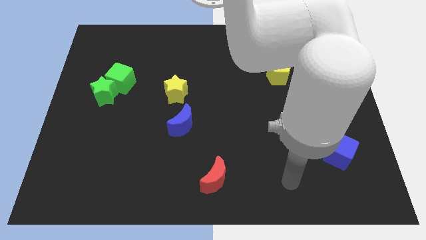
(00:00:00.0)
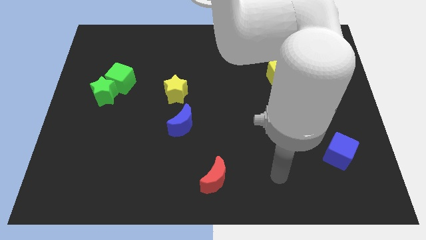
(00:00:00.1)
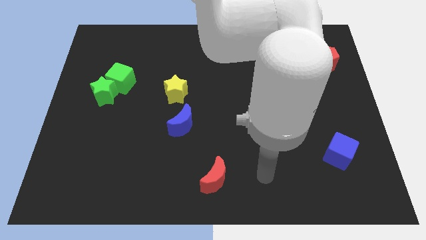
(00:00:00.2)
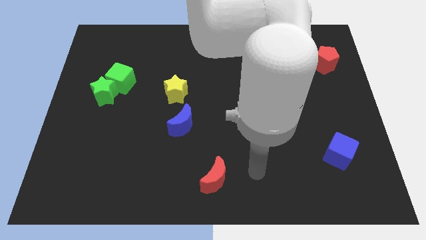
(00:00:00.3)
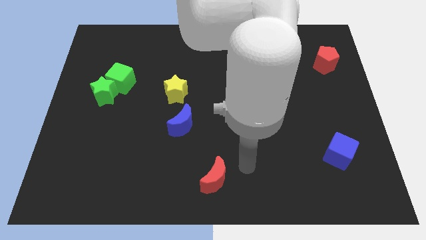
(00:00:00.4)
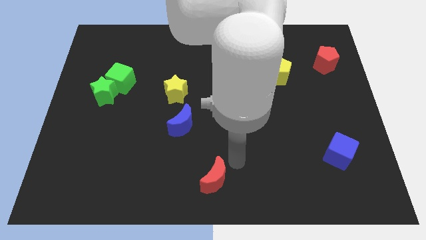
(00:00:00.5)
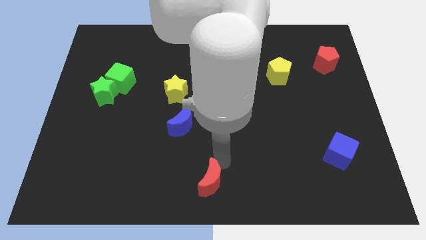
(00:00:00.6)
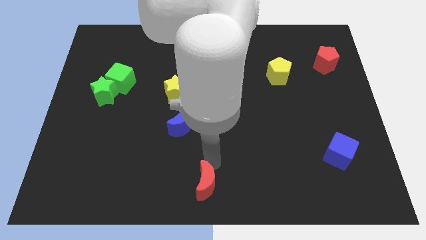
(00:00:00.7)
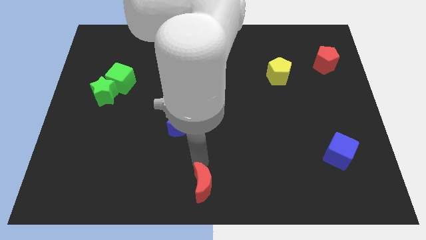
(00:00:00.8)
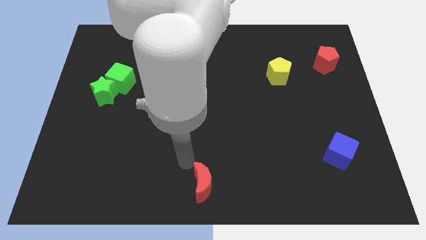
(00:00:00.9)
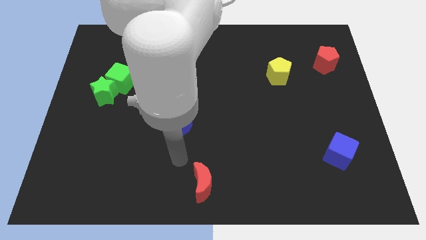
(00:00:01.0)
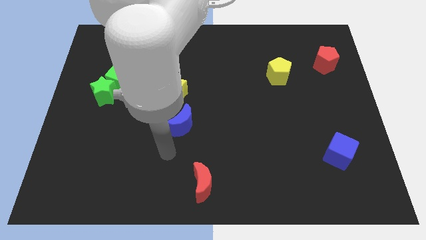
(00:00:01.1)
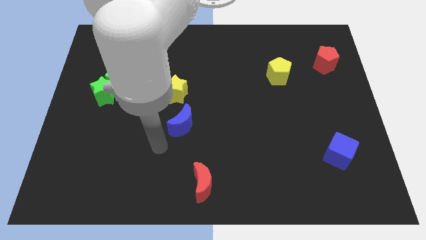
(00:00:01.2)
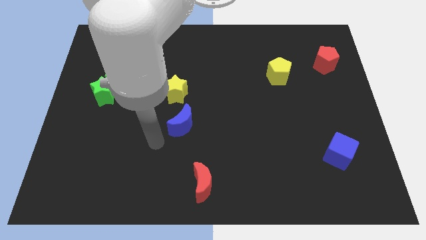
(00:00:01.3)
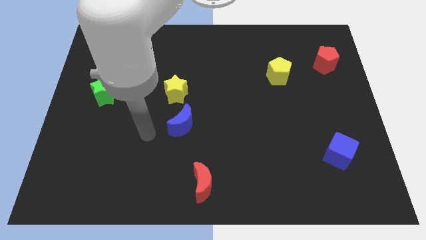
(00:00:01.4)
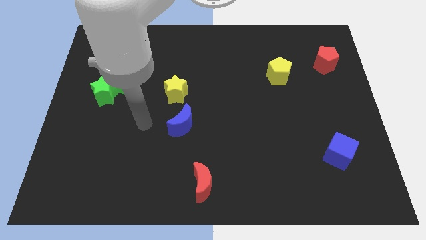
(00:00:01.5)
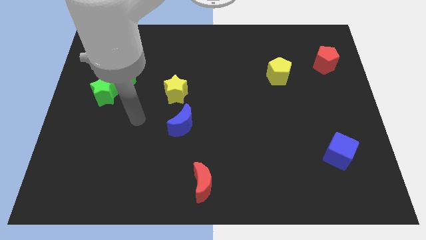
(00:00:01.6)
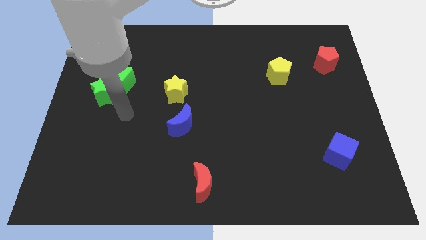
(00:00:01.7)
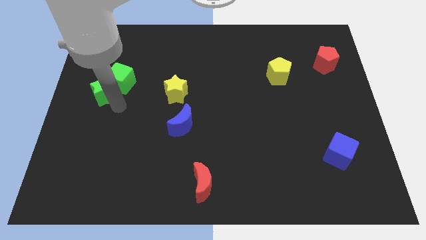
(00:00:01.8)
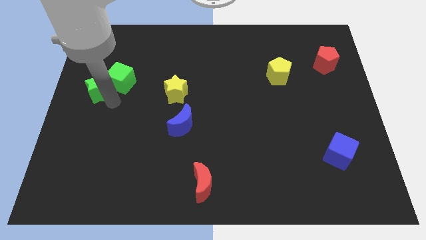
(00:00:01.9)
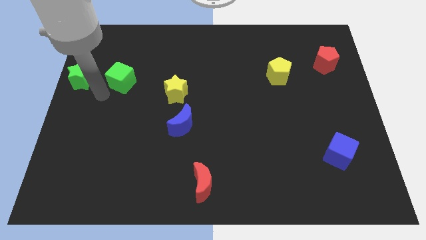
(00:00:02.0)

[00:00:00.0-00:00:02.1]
pull the green cube apart from the green star

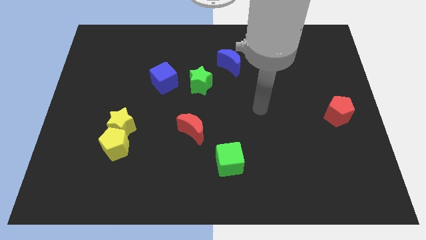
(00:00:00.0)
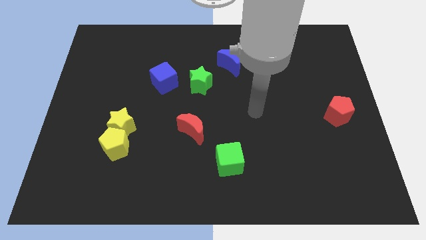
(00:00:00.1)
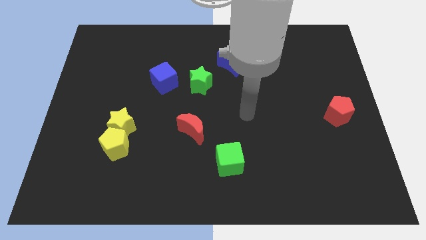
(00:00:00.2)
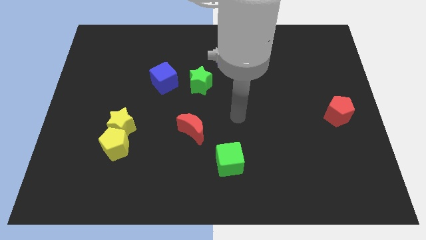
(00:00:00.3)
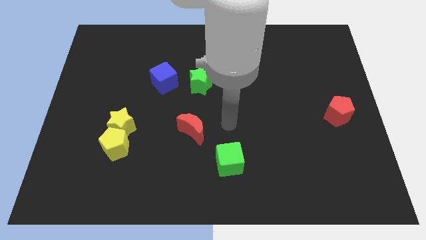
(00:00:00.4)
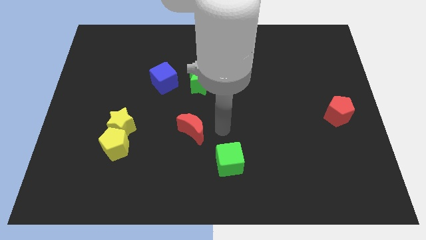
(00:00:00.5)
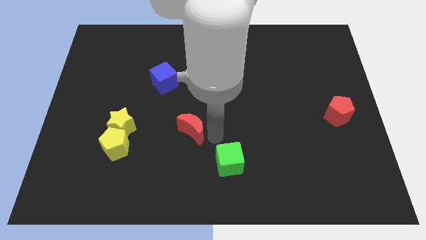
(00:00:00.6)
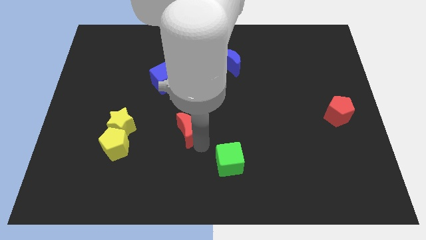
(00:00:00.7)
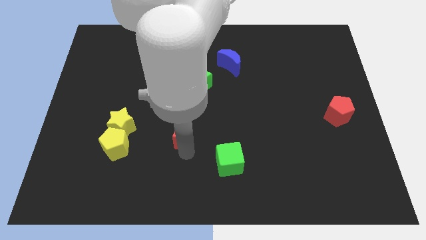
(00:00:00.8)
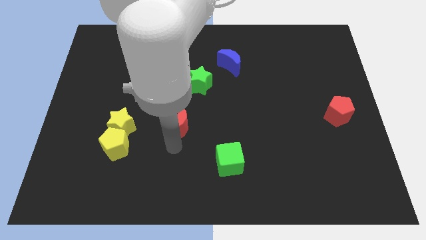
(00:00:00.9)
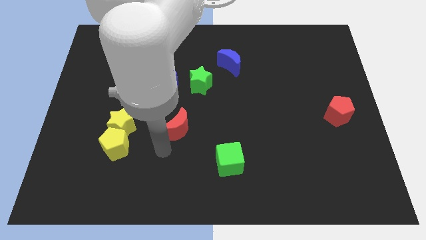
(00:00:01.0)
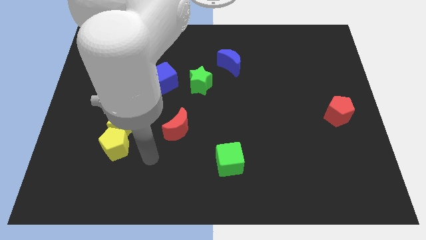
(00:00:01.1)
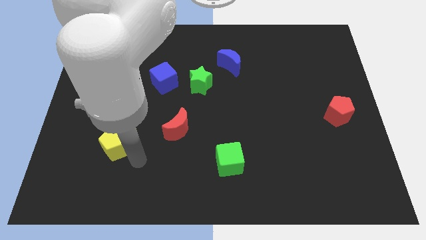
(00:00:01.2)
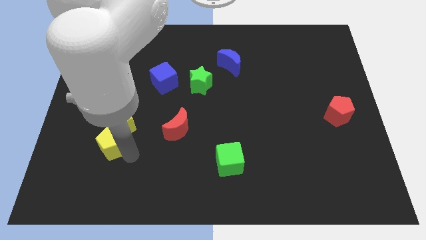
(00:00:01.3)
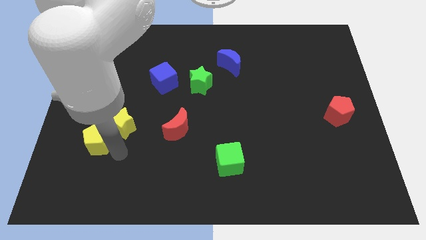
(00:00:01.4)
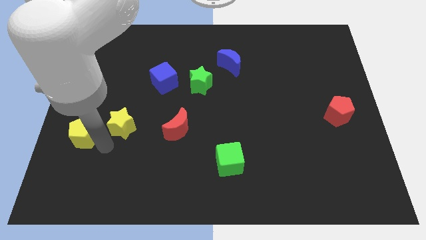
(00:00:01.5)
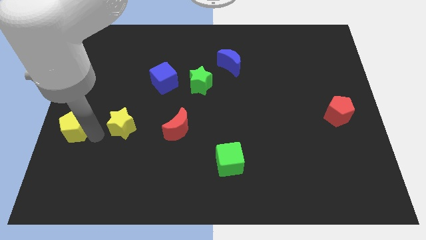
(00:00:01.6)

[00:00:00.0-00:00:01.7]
pull the yellow star apart from the yellow pentagon

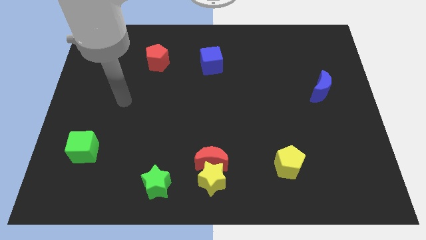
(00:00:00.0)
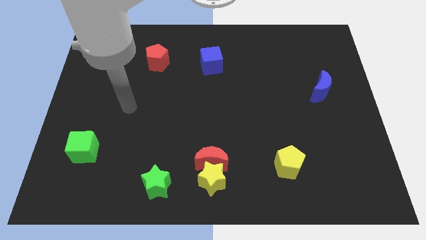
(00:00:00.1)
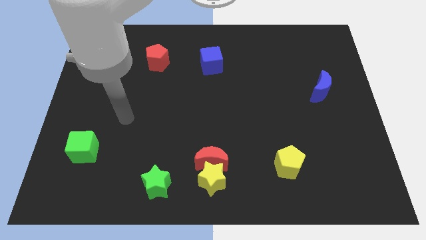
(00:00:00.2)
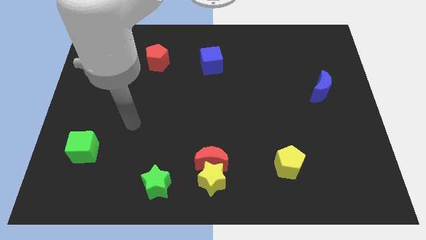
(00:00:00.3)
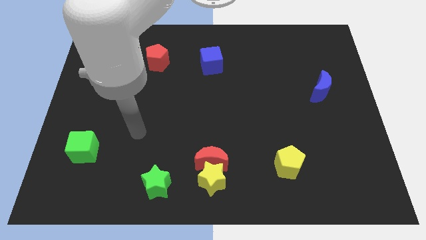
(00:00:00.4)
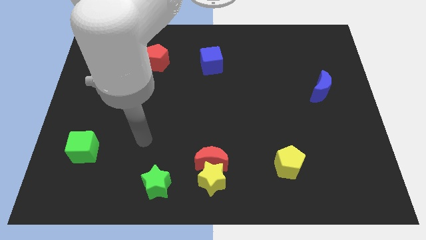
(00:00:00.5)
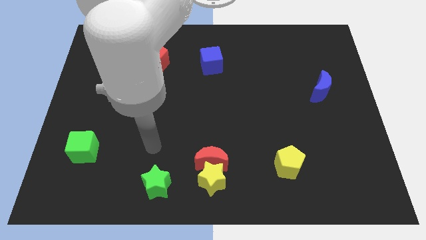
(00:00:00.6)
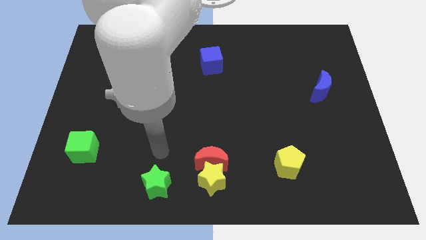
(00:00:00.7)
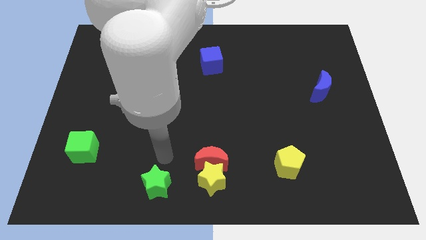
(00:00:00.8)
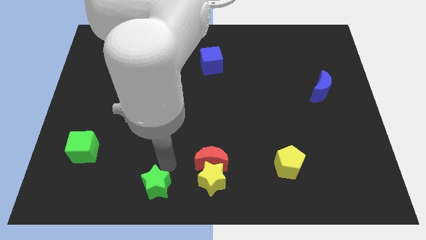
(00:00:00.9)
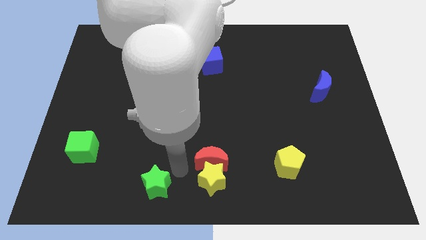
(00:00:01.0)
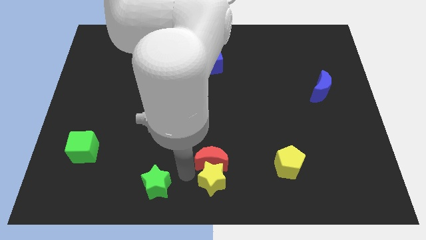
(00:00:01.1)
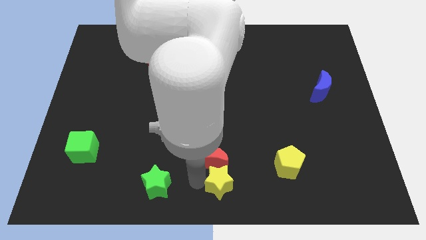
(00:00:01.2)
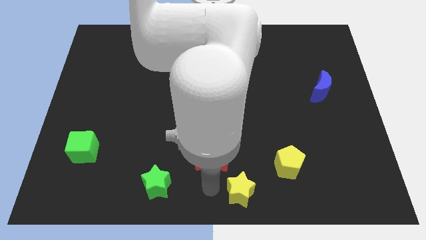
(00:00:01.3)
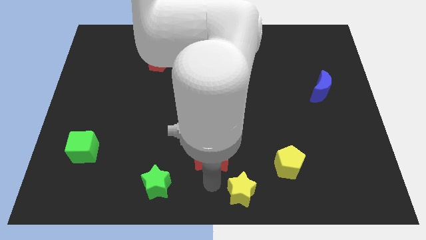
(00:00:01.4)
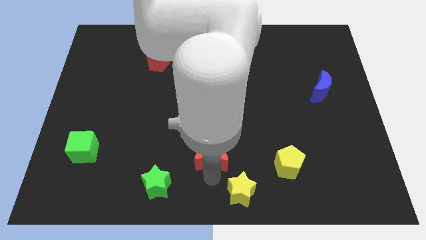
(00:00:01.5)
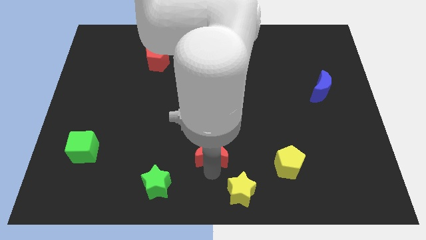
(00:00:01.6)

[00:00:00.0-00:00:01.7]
pull the red moon apart from the yellow star

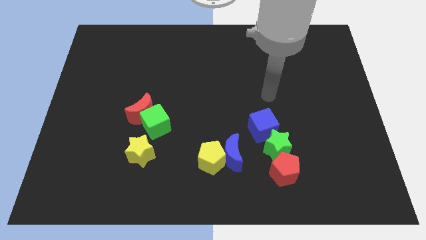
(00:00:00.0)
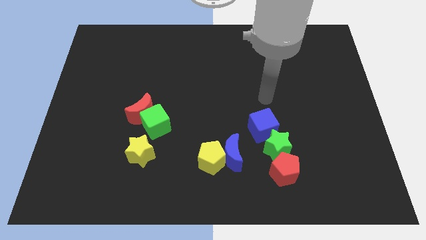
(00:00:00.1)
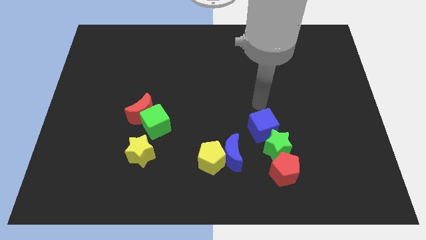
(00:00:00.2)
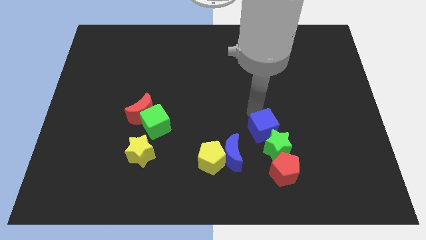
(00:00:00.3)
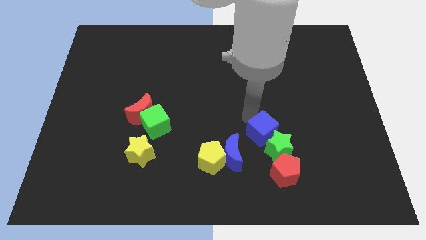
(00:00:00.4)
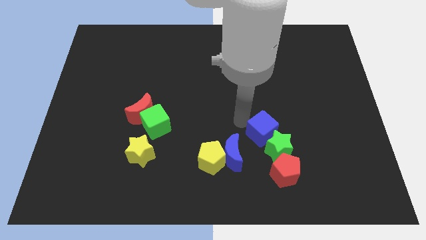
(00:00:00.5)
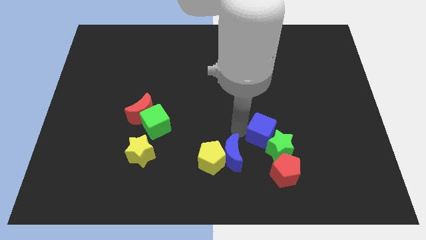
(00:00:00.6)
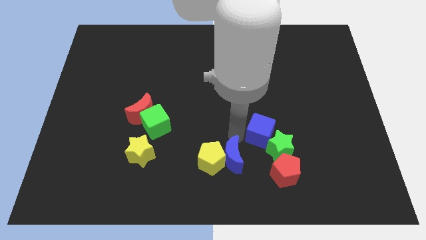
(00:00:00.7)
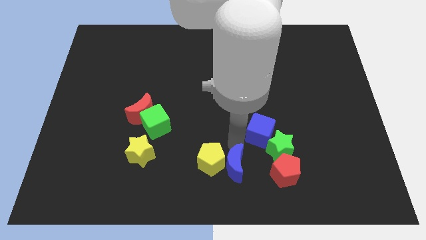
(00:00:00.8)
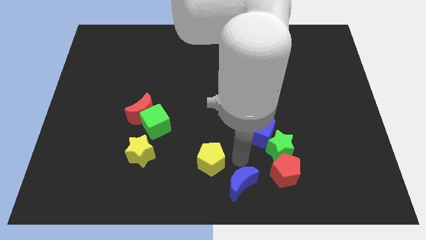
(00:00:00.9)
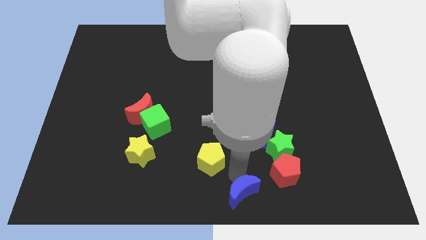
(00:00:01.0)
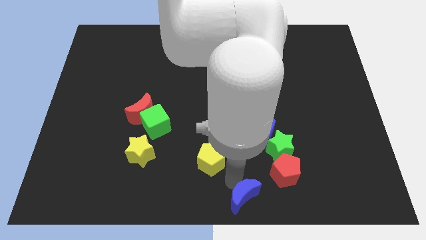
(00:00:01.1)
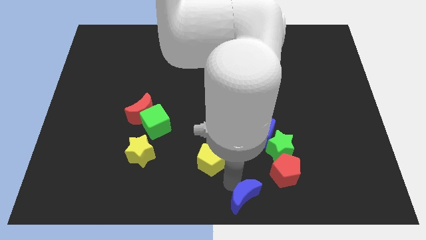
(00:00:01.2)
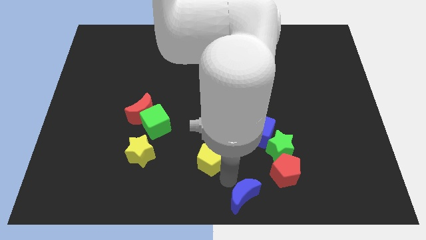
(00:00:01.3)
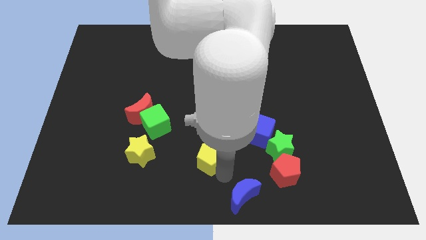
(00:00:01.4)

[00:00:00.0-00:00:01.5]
separate the yellow pentagon from the blue moon

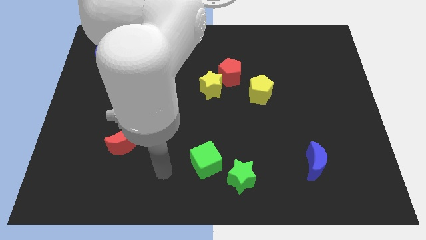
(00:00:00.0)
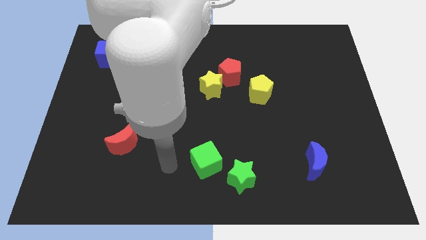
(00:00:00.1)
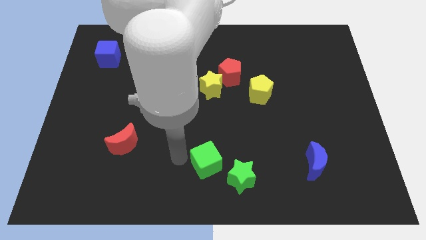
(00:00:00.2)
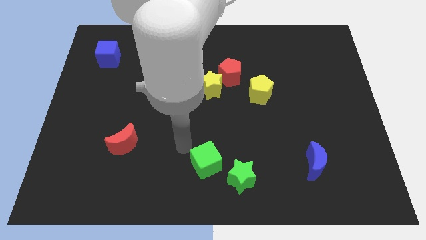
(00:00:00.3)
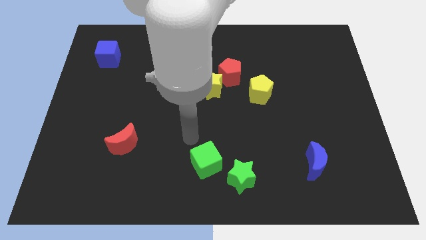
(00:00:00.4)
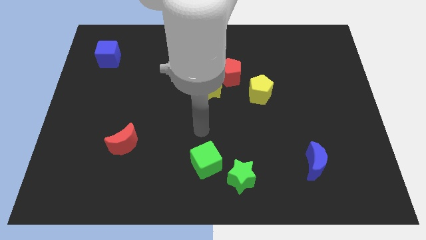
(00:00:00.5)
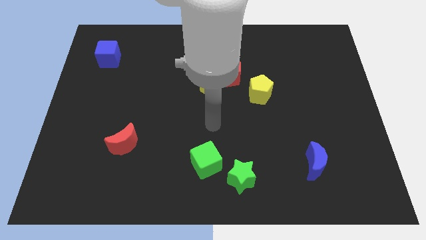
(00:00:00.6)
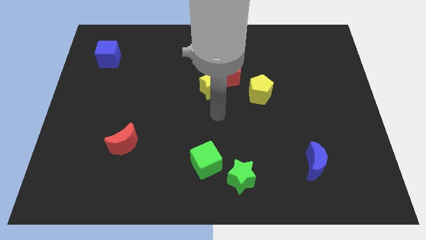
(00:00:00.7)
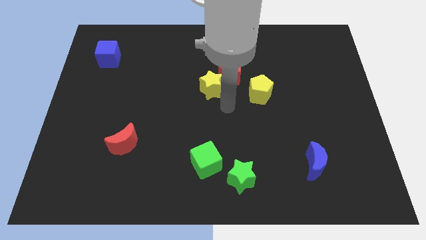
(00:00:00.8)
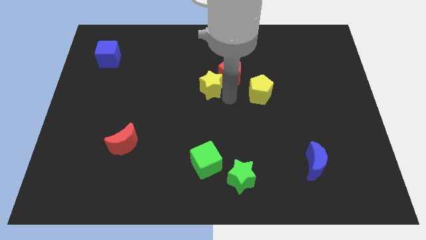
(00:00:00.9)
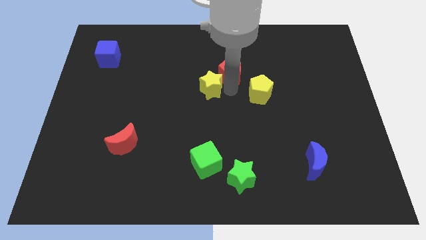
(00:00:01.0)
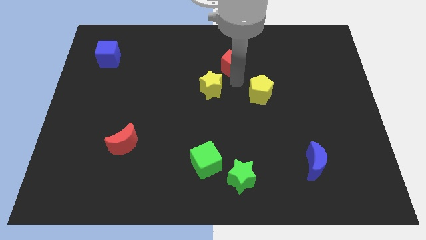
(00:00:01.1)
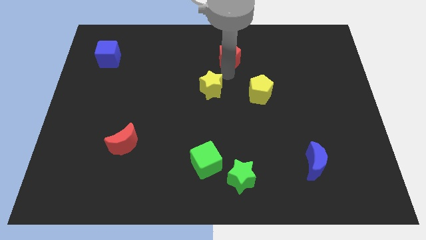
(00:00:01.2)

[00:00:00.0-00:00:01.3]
separate the yellow star from the red pentagon

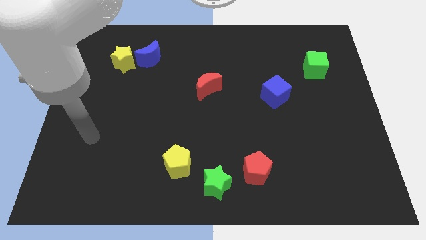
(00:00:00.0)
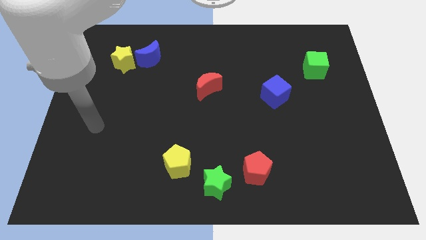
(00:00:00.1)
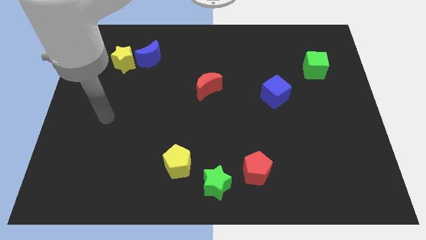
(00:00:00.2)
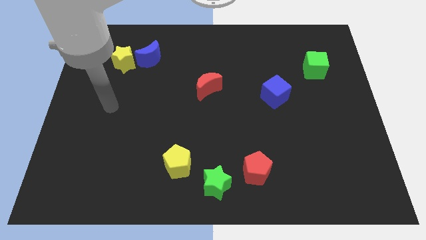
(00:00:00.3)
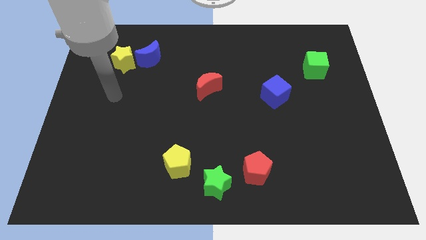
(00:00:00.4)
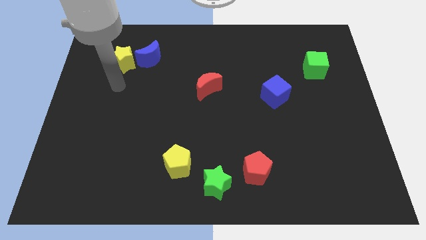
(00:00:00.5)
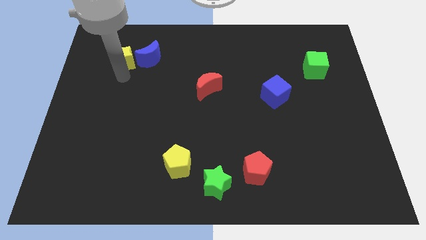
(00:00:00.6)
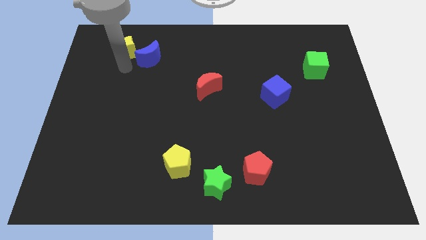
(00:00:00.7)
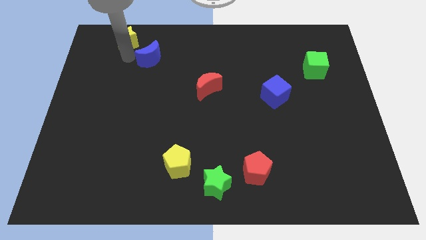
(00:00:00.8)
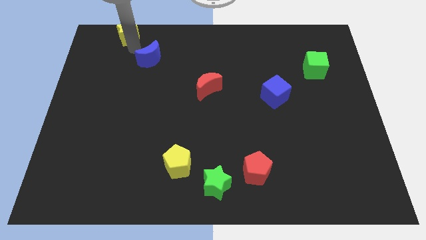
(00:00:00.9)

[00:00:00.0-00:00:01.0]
pull the blue moon apart from the yellow star
